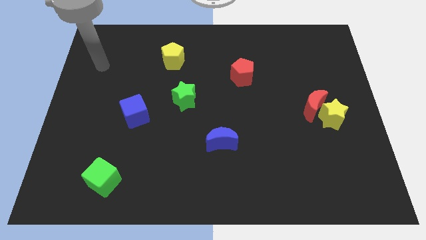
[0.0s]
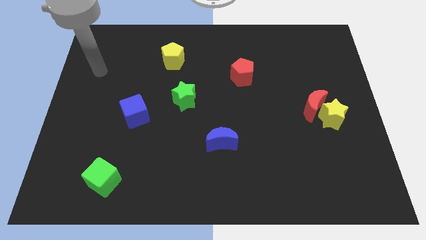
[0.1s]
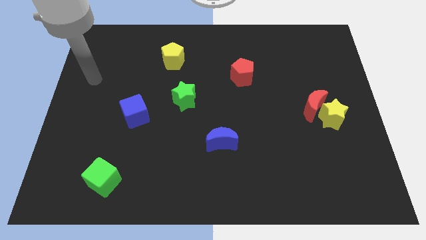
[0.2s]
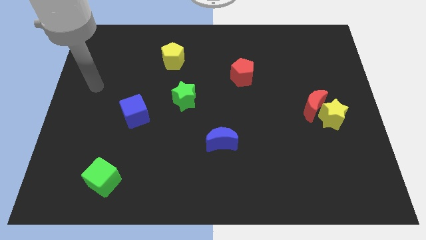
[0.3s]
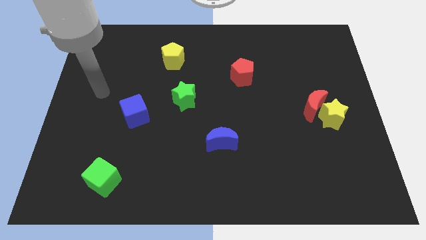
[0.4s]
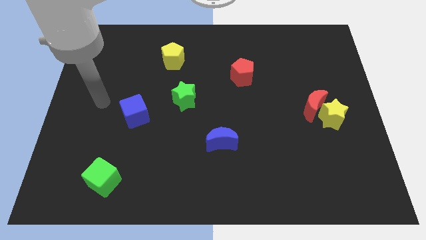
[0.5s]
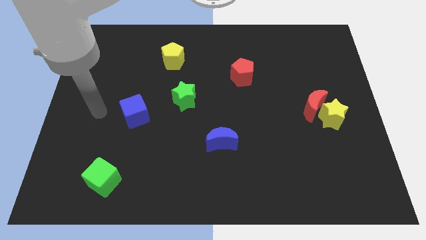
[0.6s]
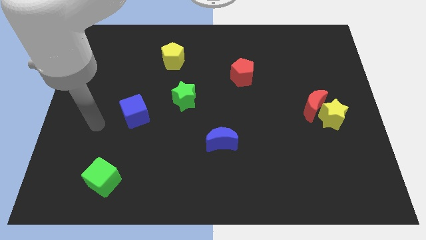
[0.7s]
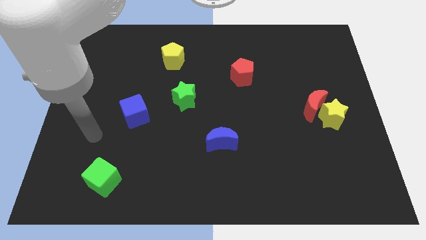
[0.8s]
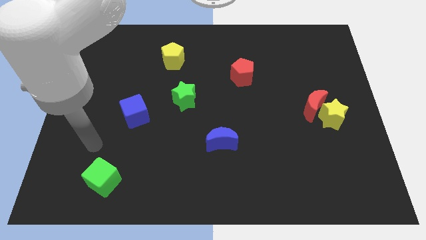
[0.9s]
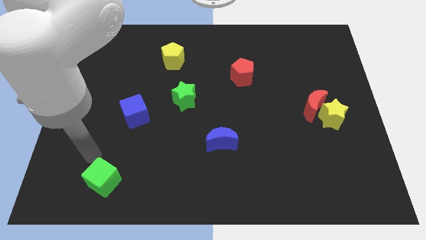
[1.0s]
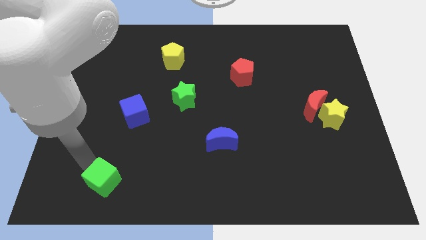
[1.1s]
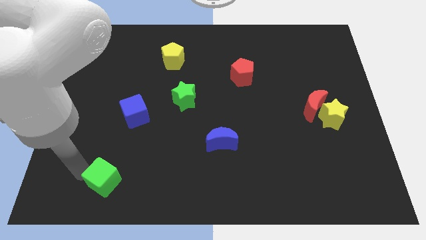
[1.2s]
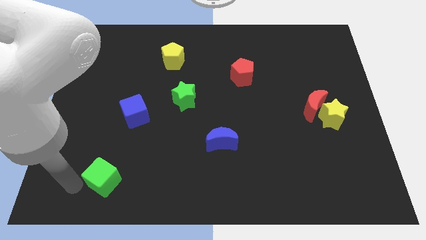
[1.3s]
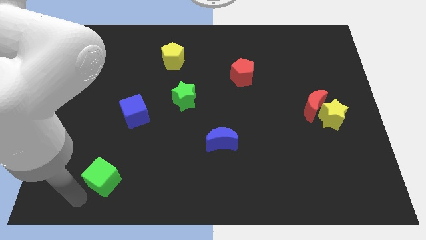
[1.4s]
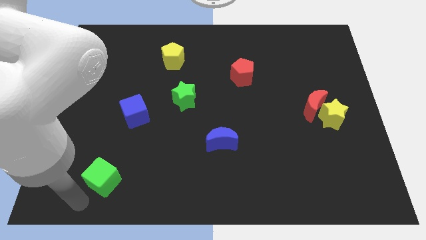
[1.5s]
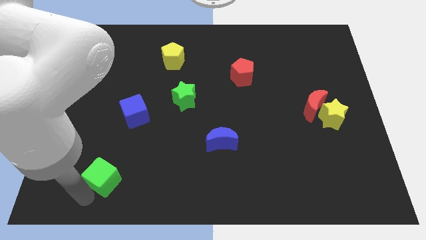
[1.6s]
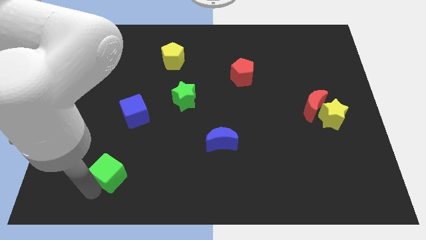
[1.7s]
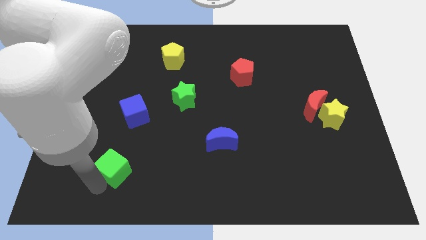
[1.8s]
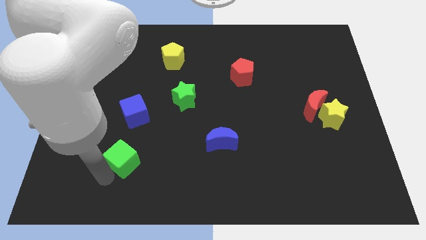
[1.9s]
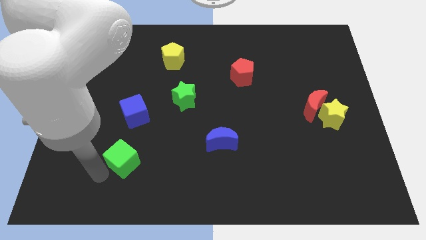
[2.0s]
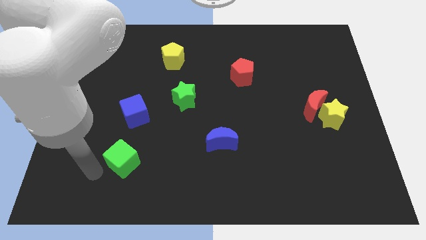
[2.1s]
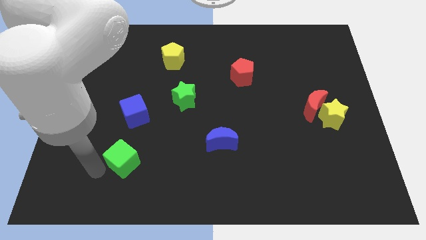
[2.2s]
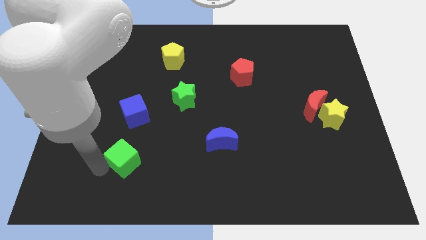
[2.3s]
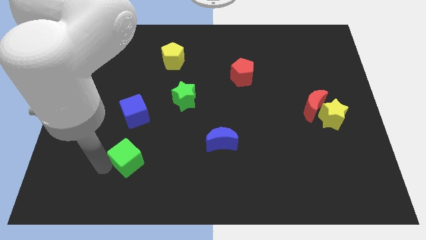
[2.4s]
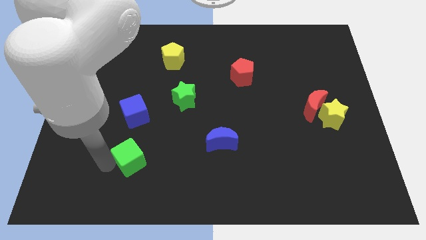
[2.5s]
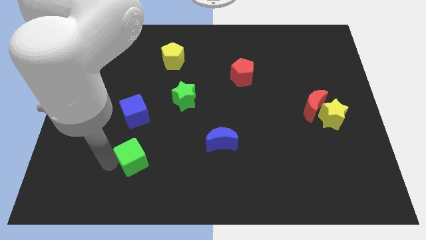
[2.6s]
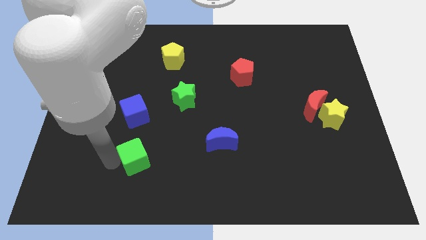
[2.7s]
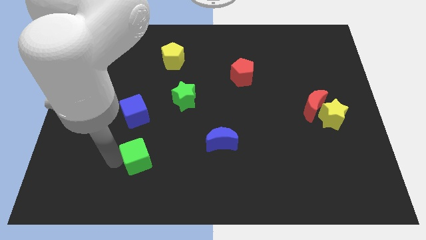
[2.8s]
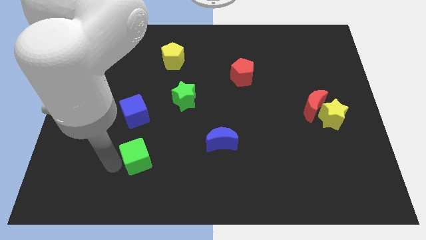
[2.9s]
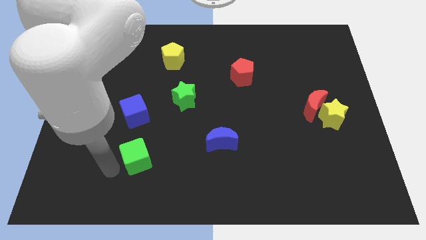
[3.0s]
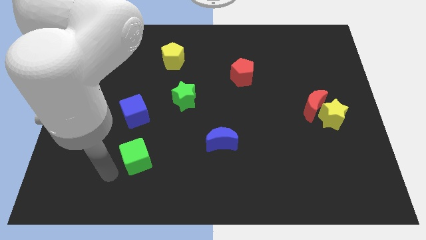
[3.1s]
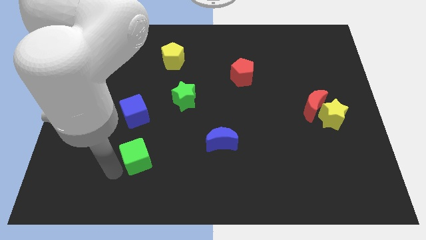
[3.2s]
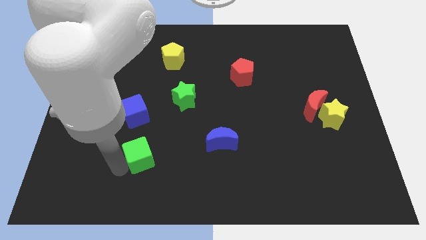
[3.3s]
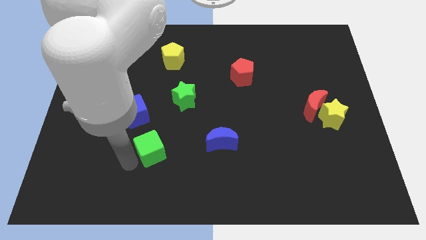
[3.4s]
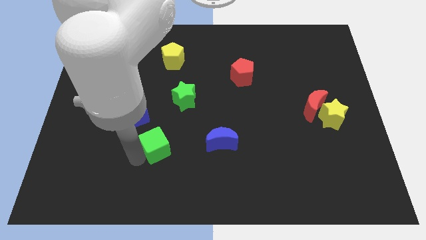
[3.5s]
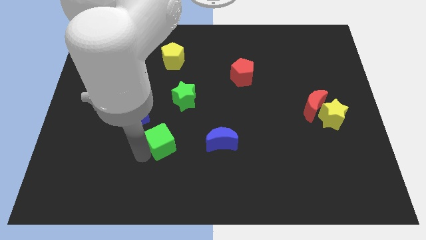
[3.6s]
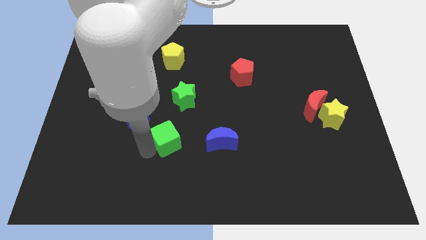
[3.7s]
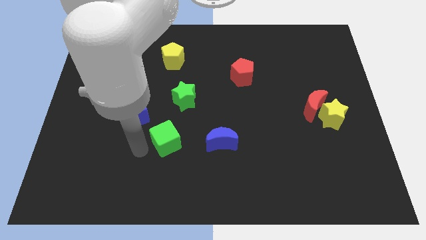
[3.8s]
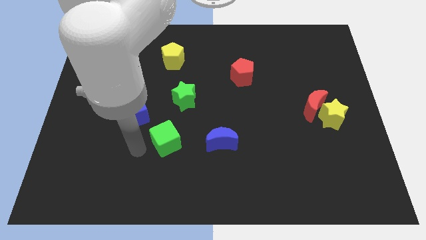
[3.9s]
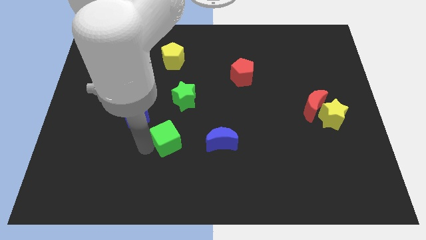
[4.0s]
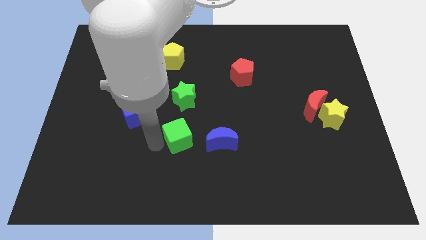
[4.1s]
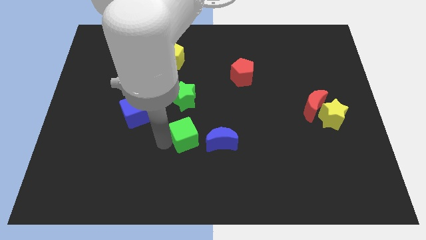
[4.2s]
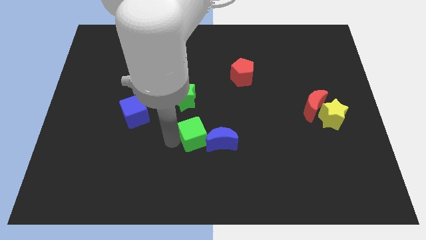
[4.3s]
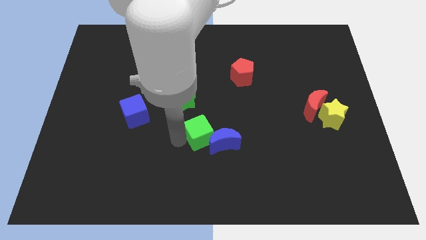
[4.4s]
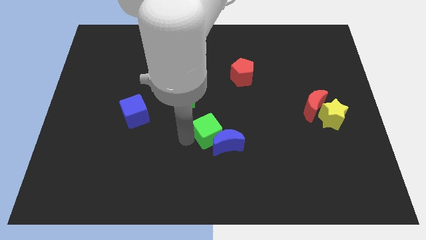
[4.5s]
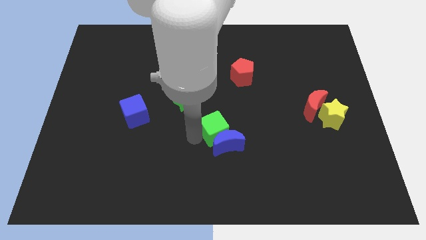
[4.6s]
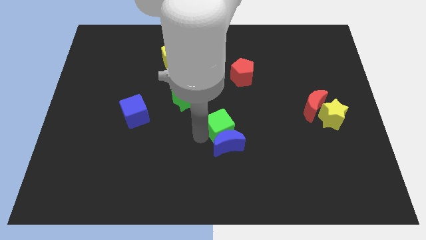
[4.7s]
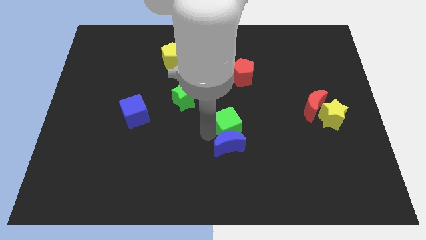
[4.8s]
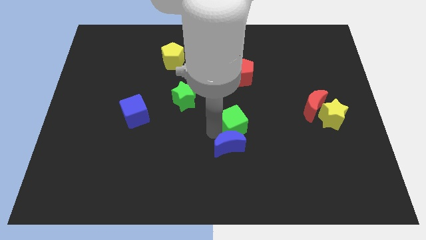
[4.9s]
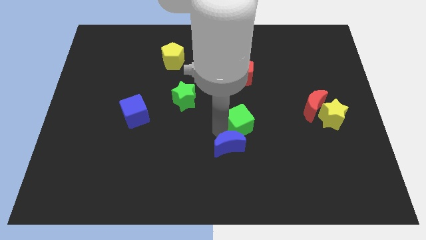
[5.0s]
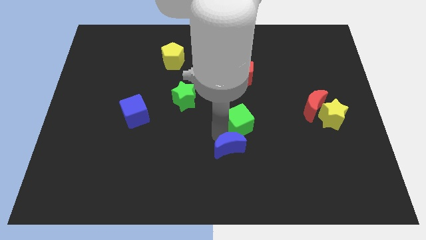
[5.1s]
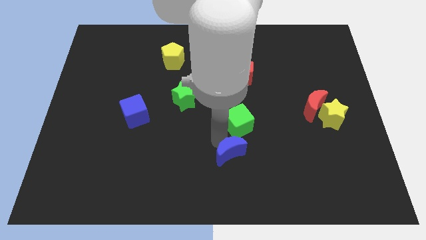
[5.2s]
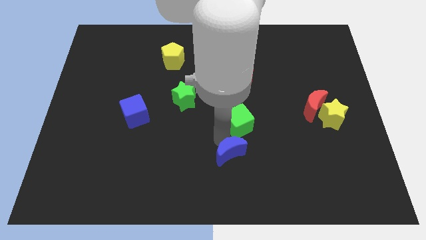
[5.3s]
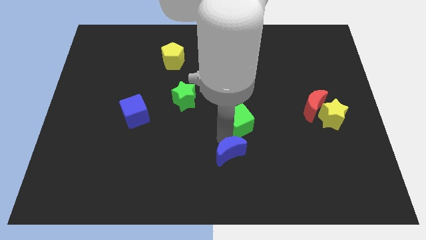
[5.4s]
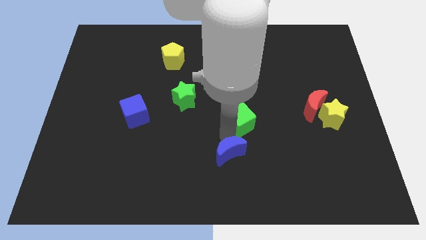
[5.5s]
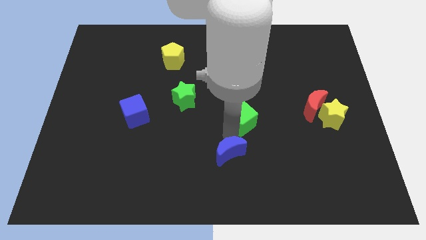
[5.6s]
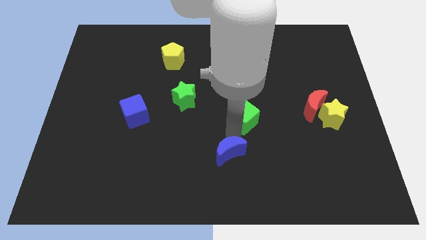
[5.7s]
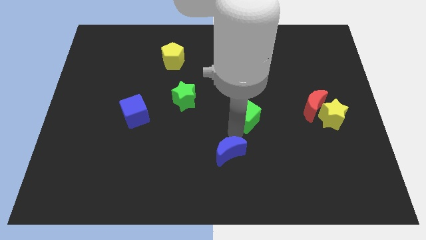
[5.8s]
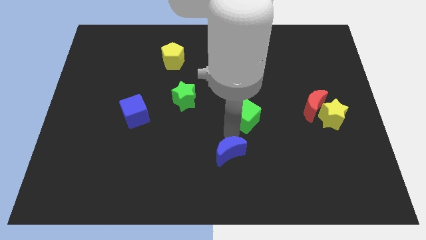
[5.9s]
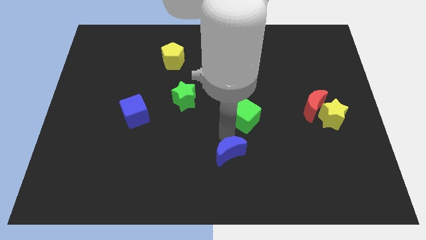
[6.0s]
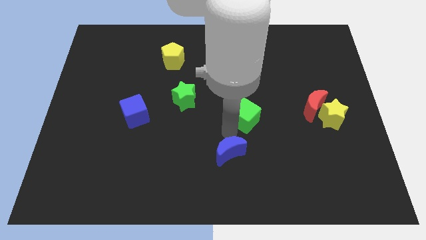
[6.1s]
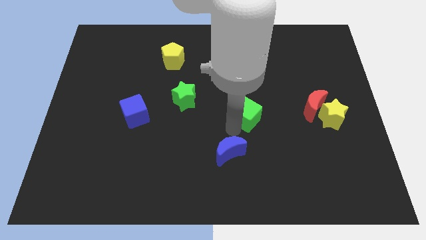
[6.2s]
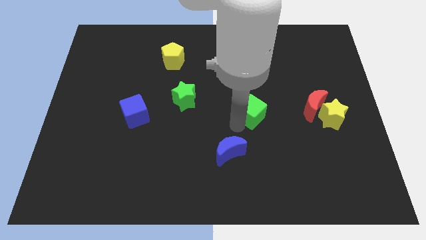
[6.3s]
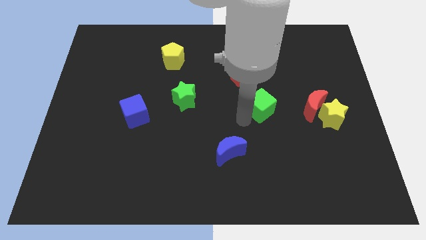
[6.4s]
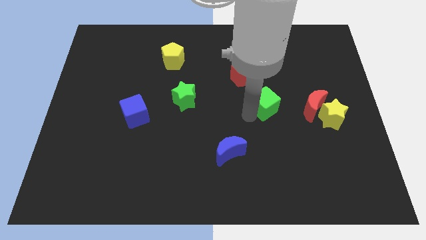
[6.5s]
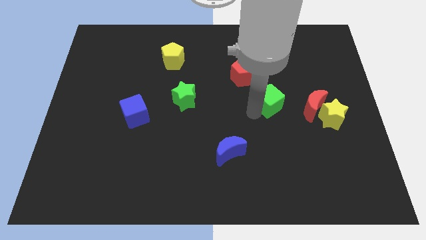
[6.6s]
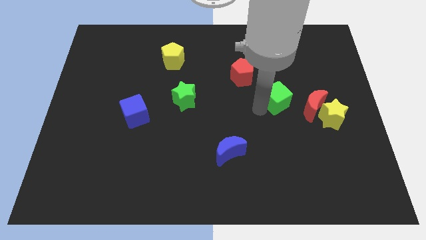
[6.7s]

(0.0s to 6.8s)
push the green cube diagonally up and to the left of the red moon
